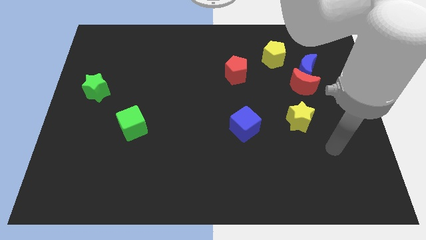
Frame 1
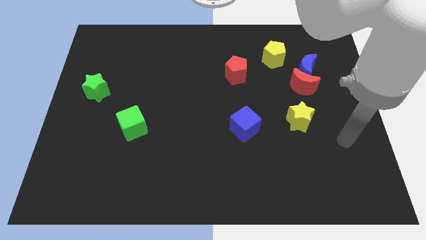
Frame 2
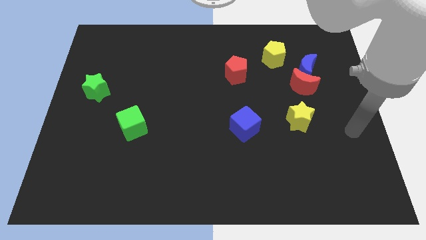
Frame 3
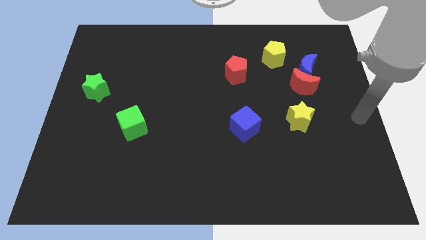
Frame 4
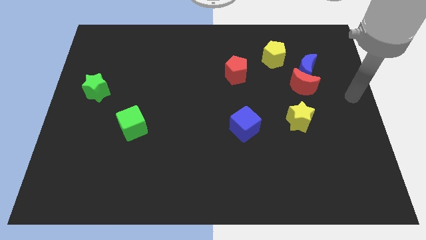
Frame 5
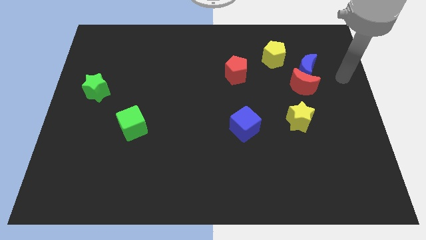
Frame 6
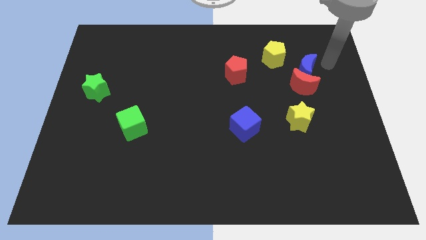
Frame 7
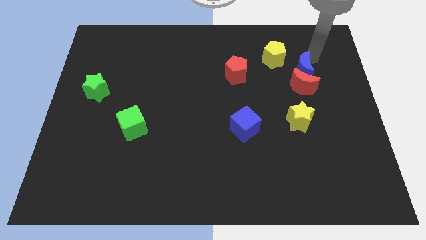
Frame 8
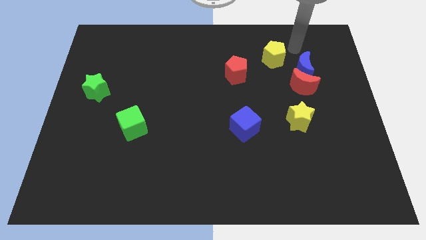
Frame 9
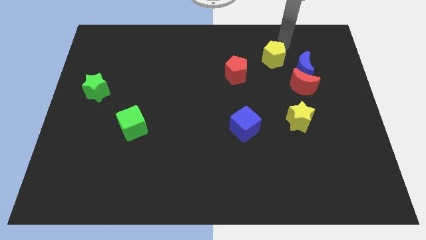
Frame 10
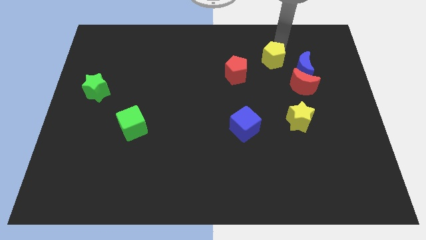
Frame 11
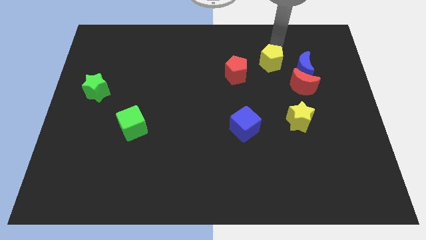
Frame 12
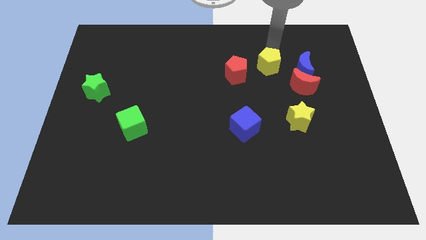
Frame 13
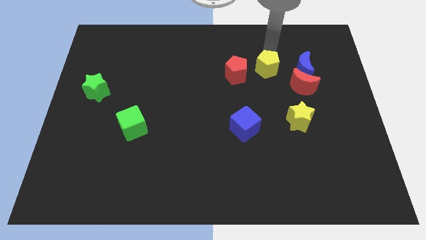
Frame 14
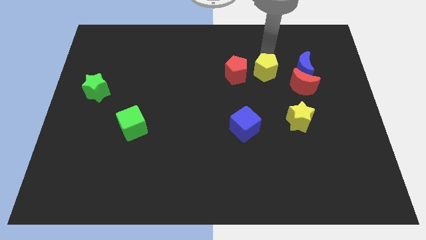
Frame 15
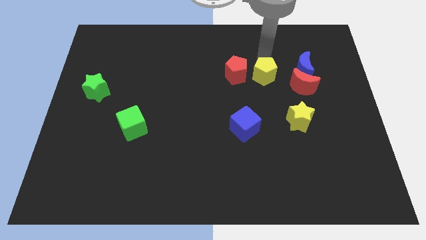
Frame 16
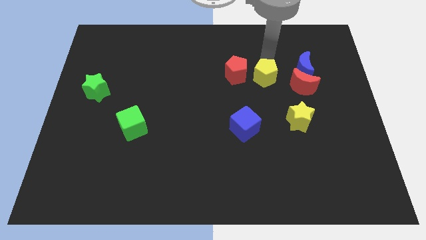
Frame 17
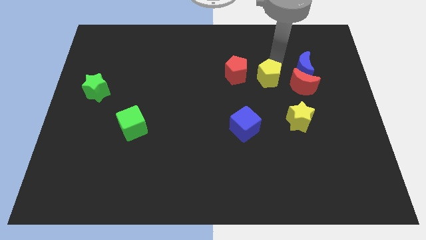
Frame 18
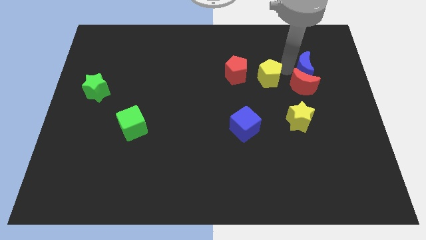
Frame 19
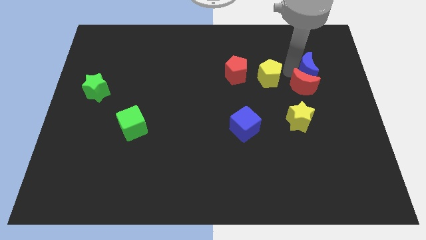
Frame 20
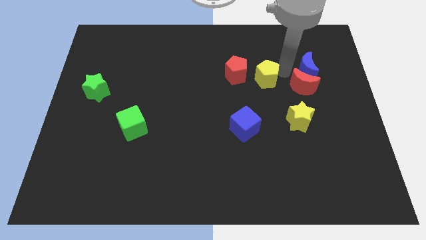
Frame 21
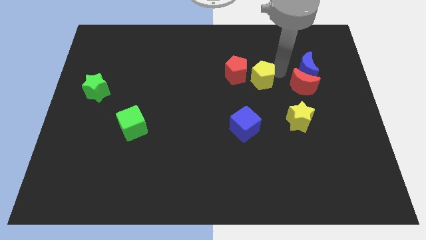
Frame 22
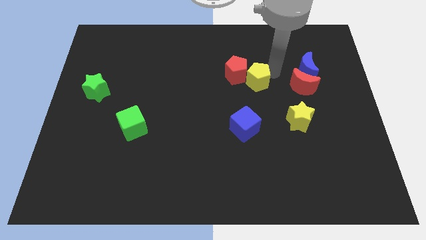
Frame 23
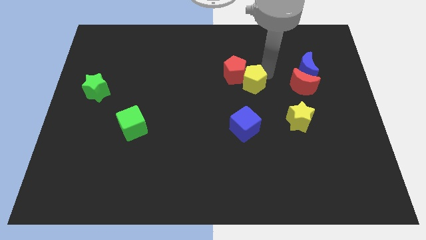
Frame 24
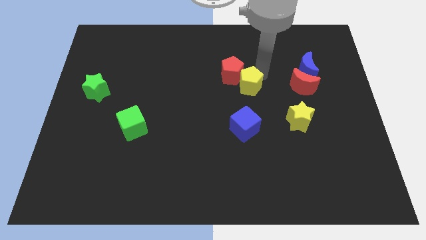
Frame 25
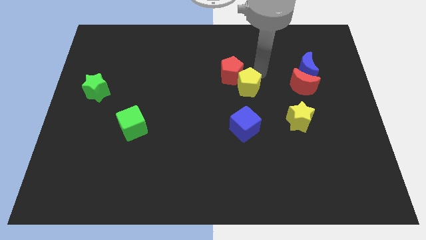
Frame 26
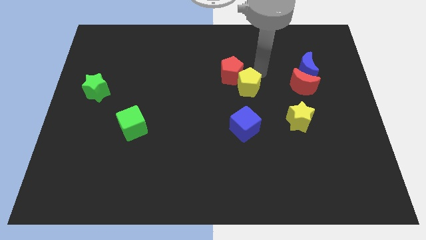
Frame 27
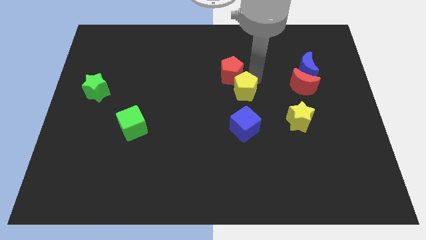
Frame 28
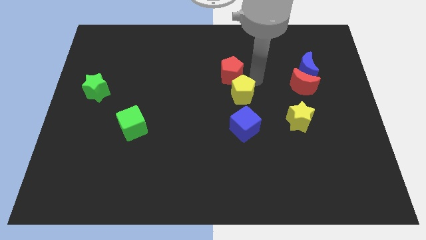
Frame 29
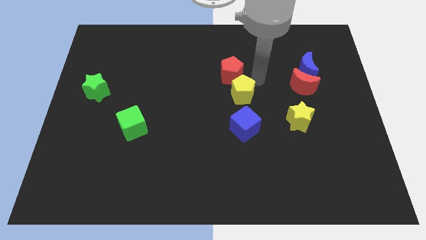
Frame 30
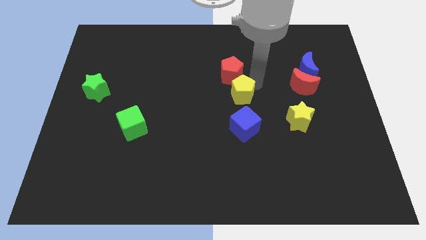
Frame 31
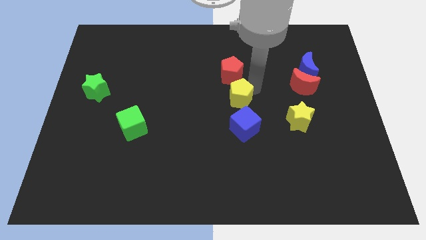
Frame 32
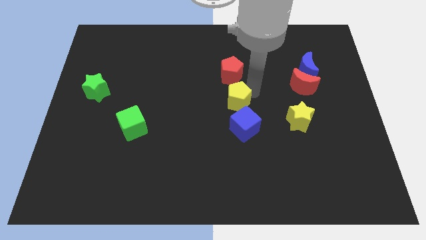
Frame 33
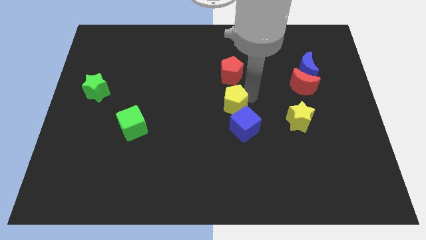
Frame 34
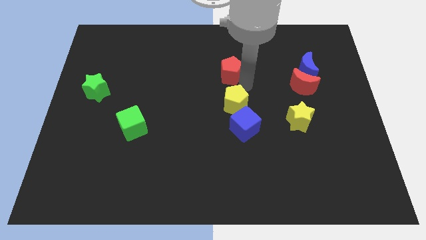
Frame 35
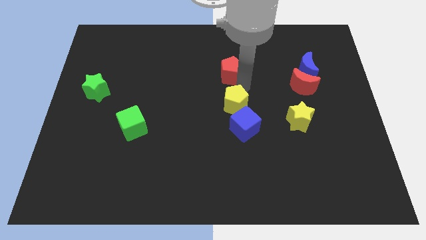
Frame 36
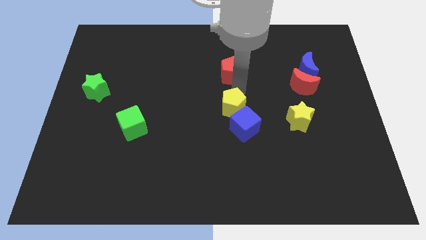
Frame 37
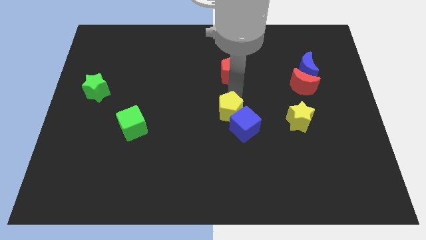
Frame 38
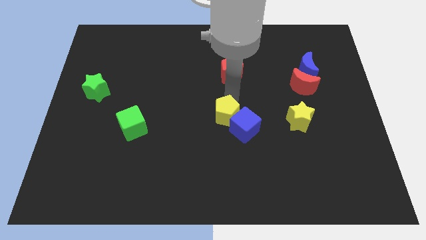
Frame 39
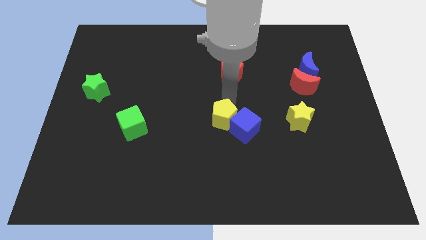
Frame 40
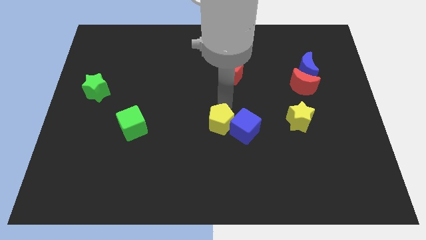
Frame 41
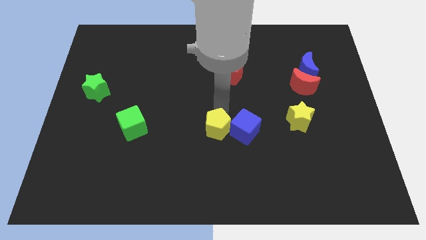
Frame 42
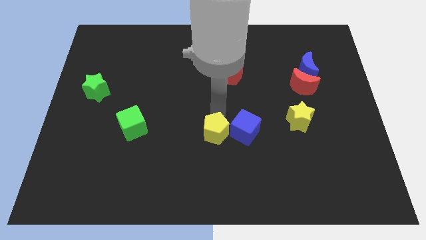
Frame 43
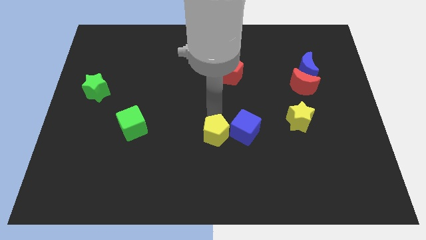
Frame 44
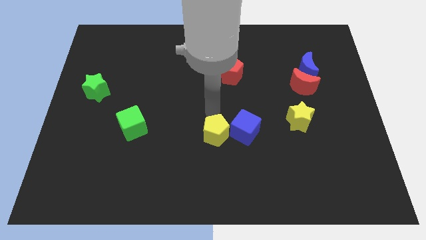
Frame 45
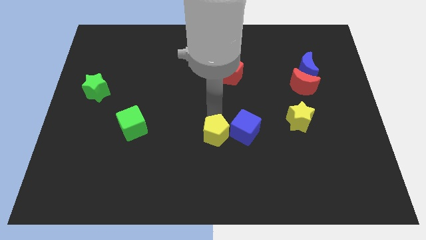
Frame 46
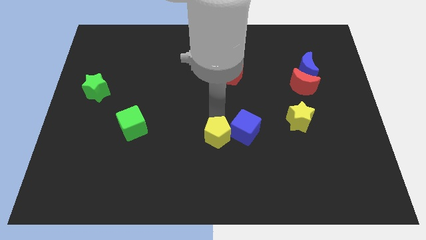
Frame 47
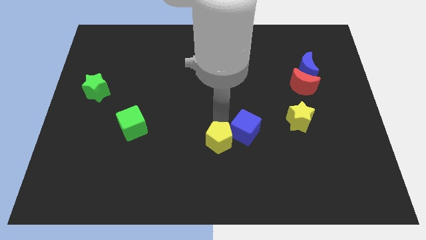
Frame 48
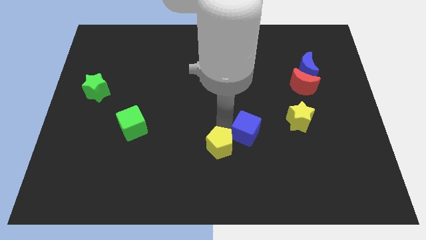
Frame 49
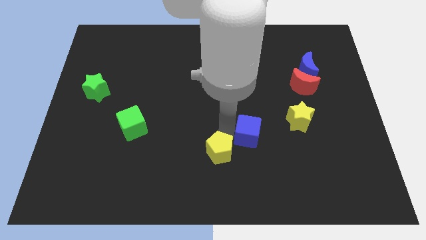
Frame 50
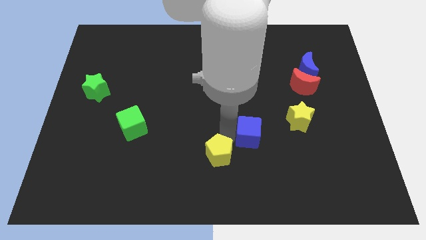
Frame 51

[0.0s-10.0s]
slide the yellow pentagon to the bottom

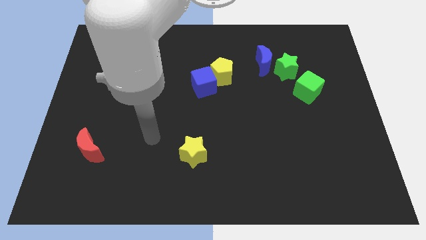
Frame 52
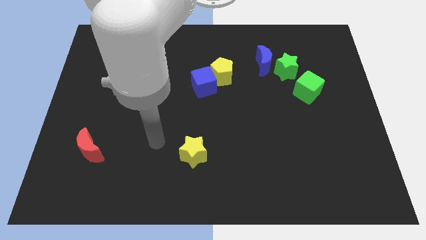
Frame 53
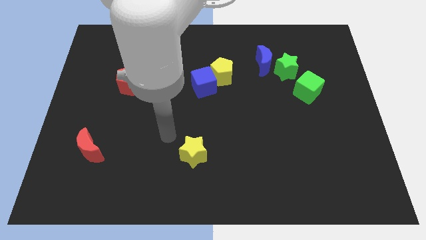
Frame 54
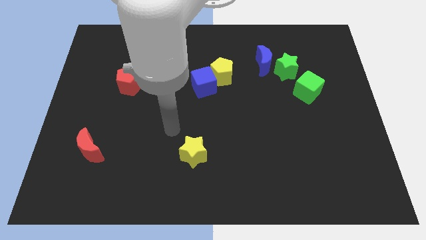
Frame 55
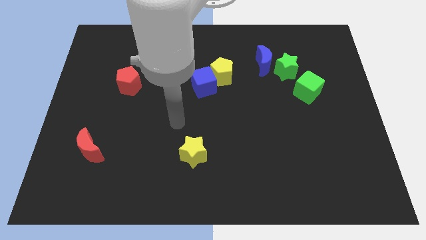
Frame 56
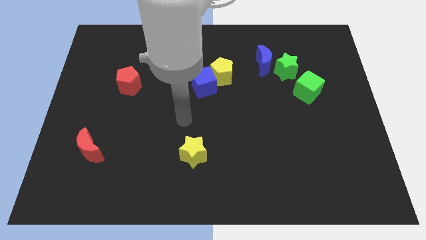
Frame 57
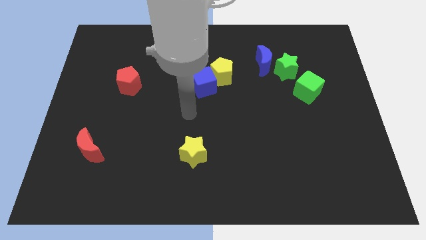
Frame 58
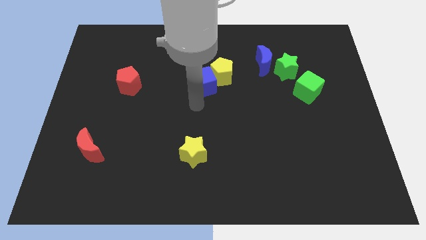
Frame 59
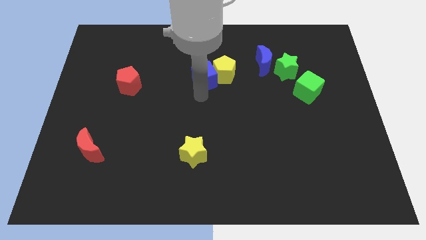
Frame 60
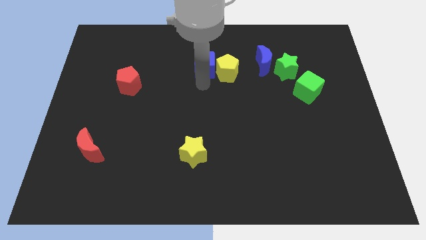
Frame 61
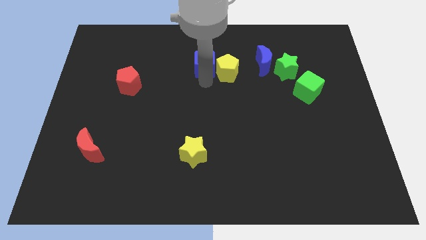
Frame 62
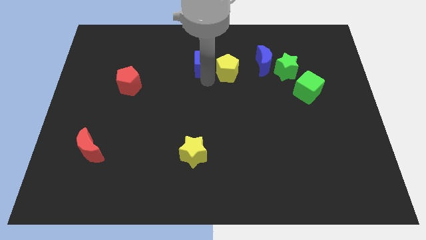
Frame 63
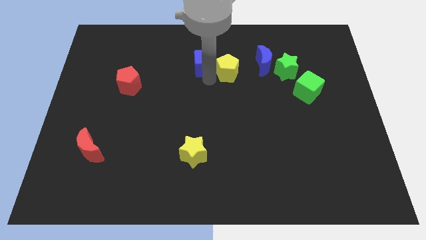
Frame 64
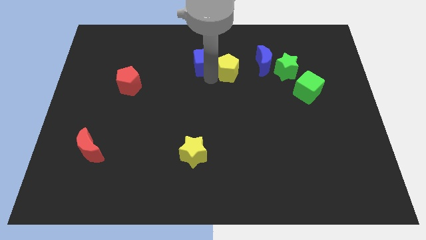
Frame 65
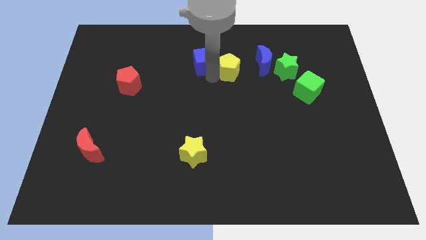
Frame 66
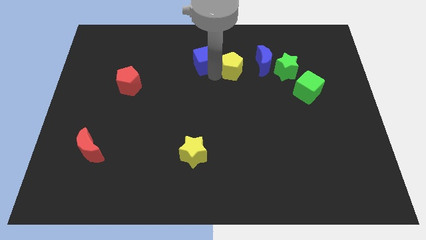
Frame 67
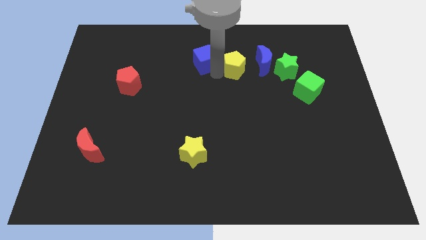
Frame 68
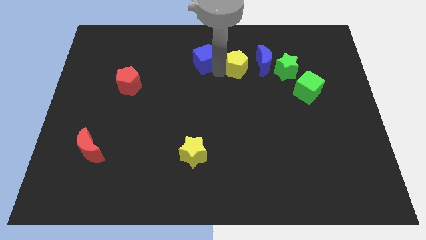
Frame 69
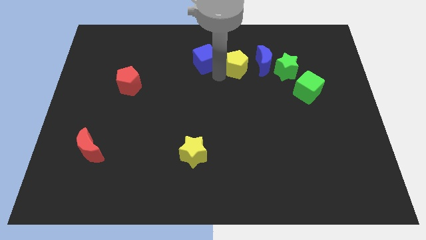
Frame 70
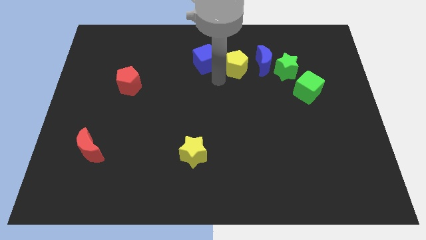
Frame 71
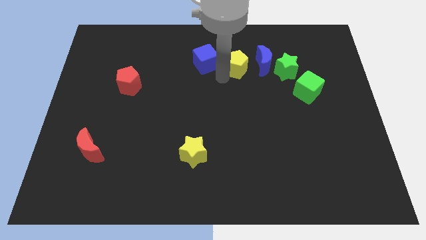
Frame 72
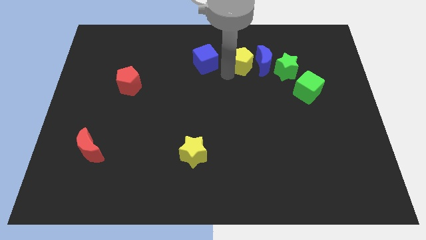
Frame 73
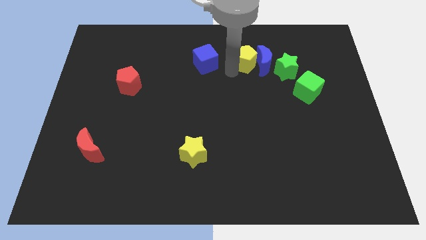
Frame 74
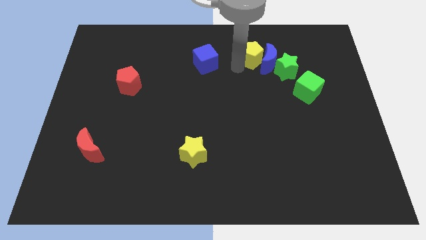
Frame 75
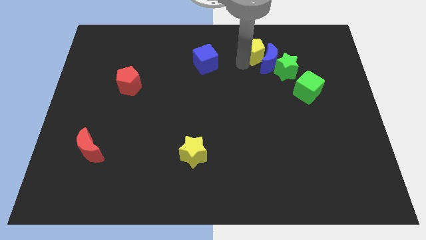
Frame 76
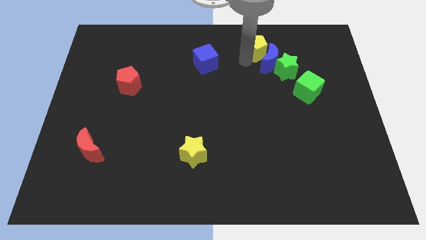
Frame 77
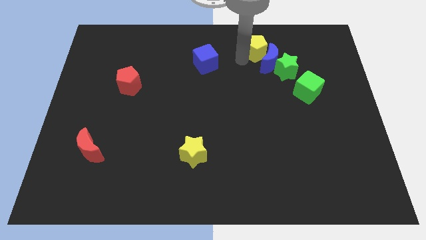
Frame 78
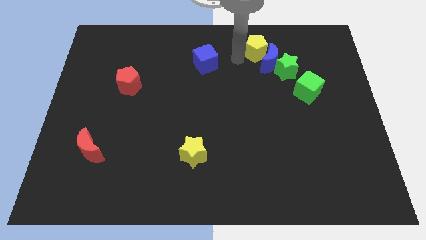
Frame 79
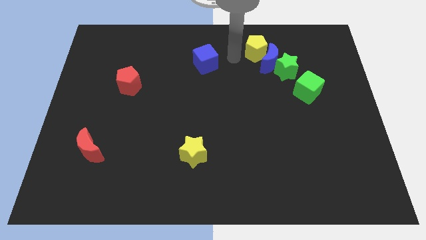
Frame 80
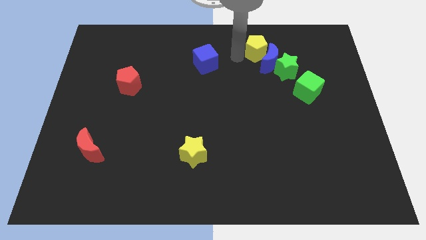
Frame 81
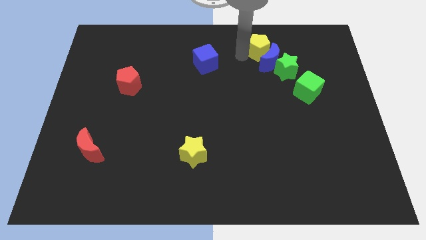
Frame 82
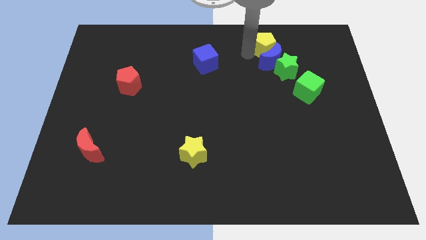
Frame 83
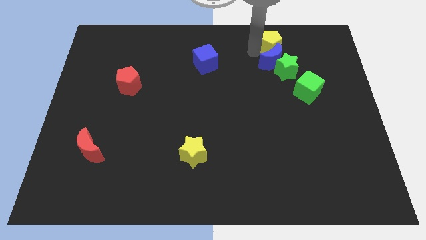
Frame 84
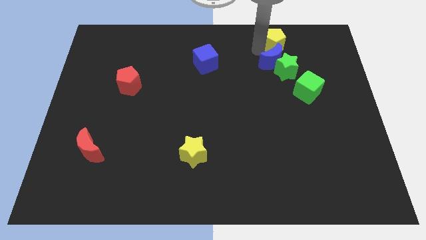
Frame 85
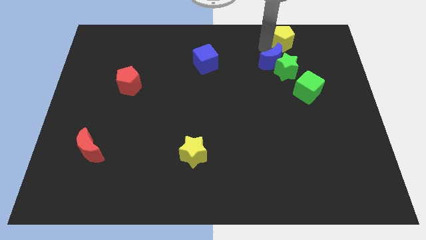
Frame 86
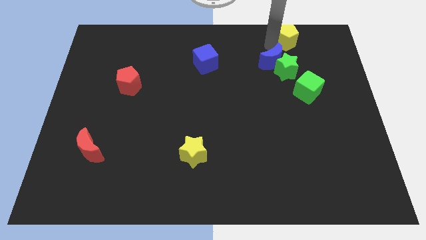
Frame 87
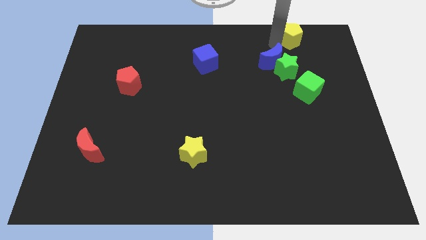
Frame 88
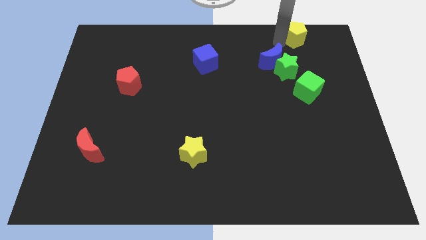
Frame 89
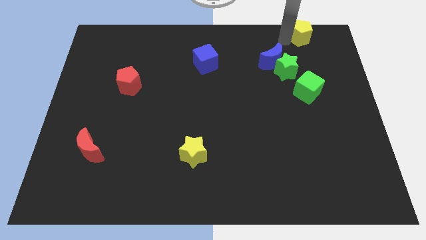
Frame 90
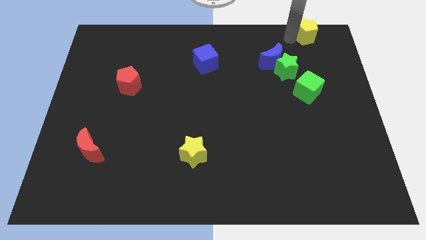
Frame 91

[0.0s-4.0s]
push the yellow pentagon to the top right of the board
